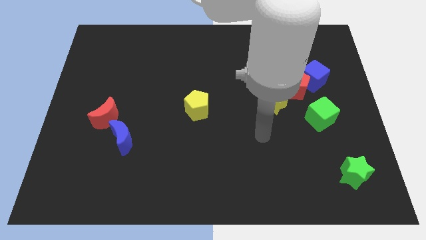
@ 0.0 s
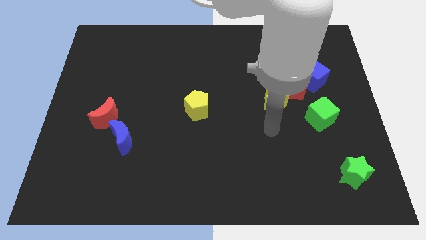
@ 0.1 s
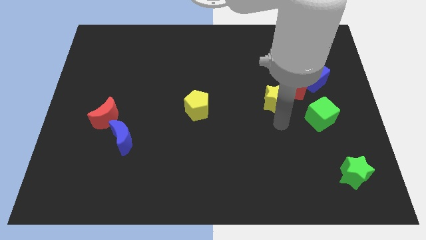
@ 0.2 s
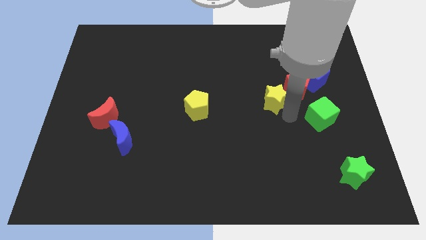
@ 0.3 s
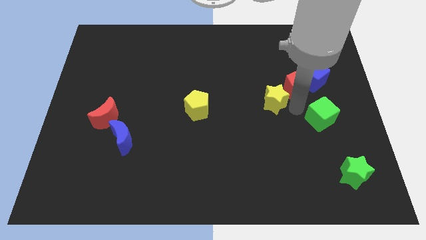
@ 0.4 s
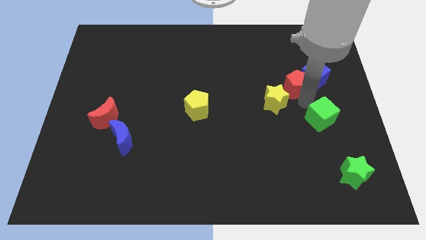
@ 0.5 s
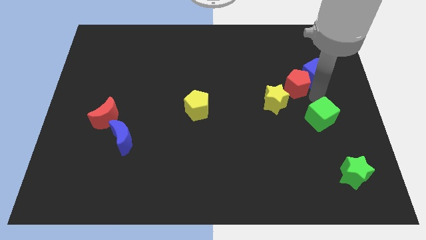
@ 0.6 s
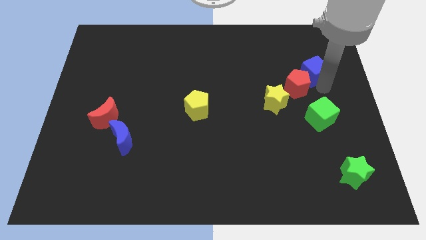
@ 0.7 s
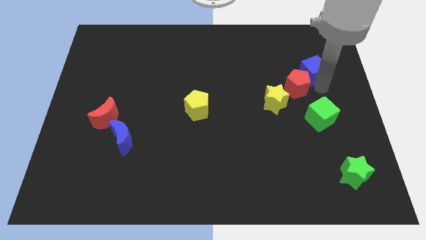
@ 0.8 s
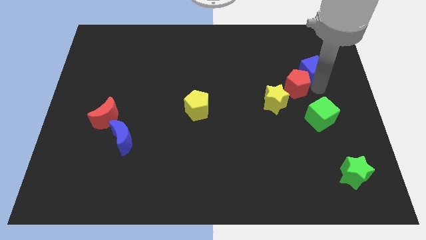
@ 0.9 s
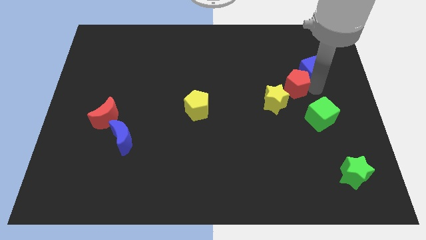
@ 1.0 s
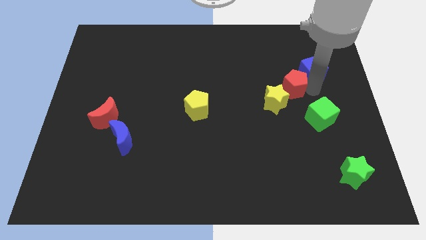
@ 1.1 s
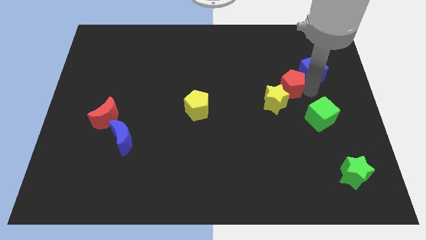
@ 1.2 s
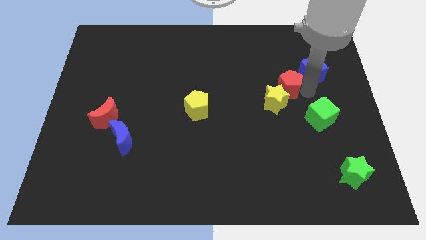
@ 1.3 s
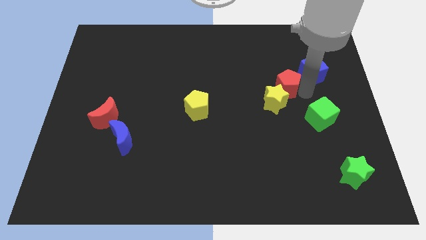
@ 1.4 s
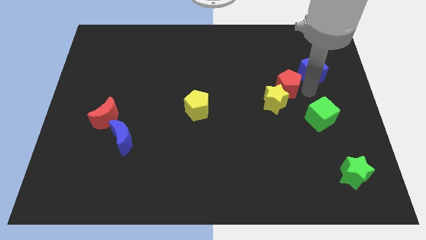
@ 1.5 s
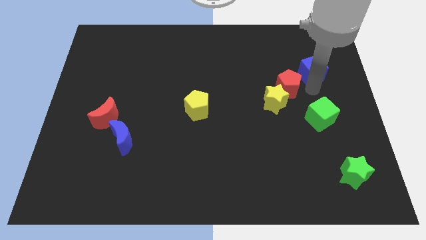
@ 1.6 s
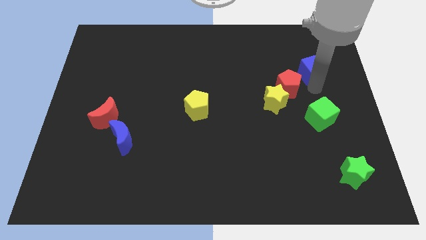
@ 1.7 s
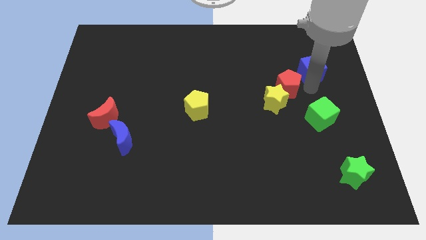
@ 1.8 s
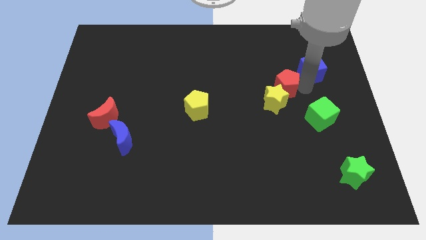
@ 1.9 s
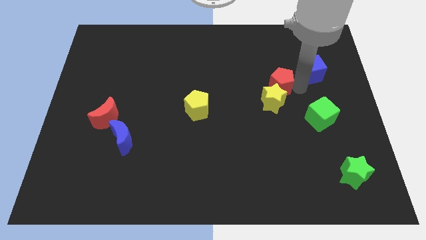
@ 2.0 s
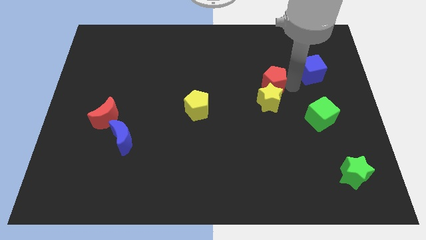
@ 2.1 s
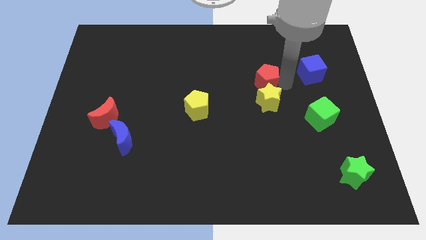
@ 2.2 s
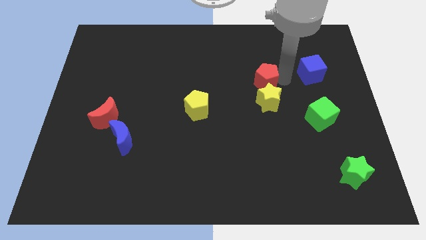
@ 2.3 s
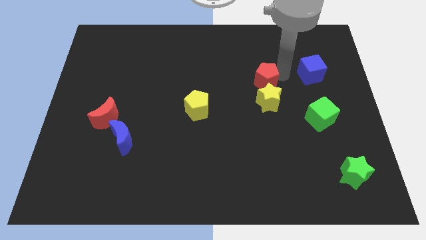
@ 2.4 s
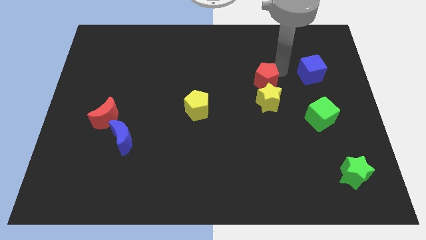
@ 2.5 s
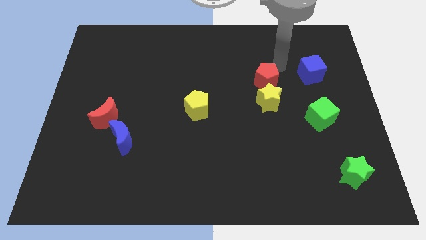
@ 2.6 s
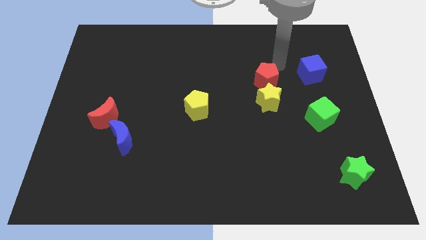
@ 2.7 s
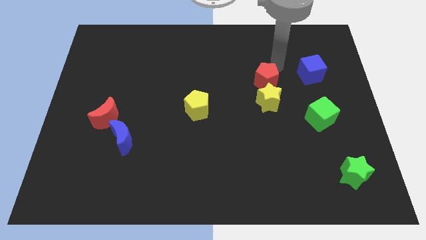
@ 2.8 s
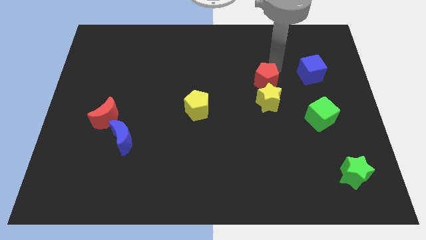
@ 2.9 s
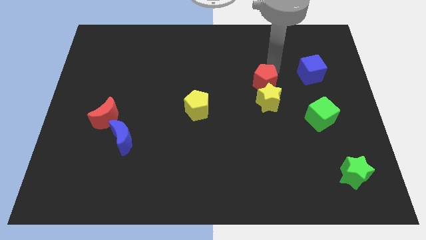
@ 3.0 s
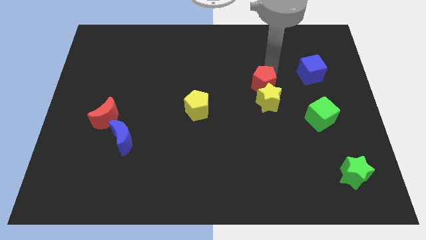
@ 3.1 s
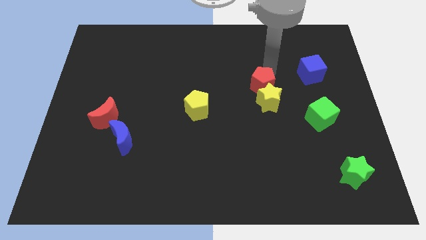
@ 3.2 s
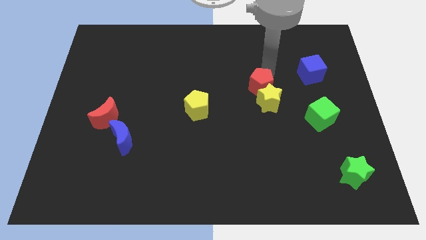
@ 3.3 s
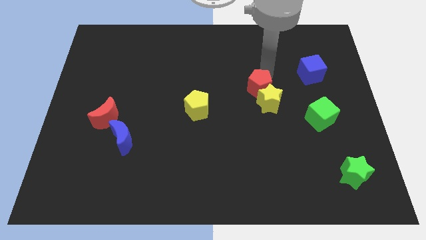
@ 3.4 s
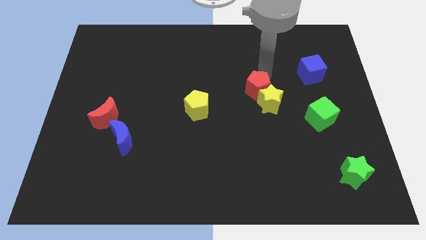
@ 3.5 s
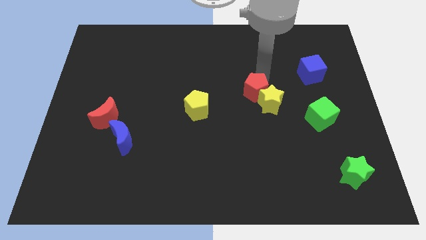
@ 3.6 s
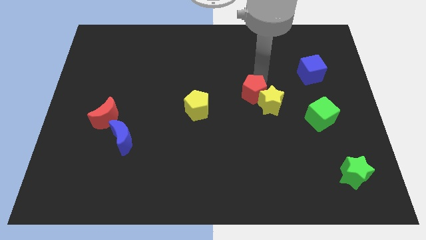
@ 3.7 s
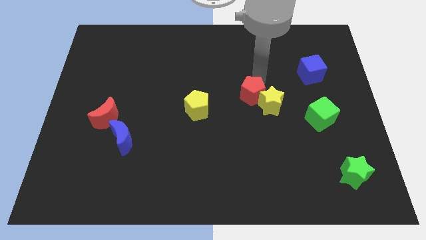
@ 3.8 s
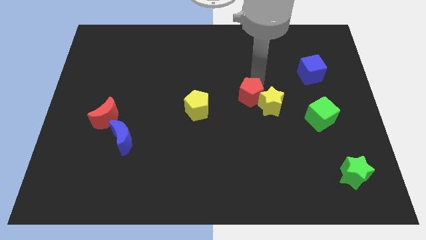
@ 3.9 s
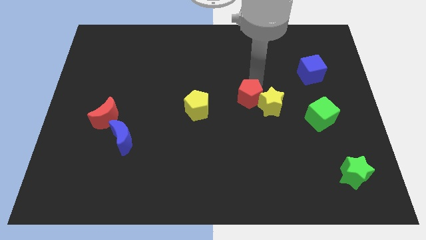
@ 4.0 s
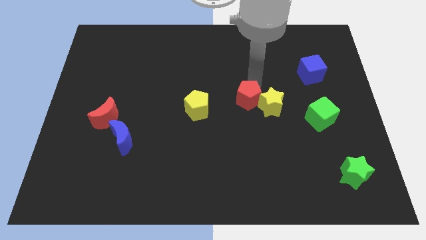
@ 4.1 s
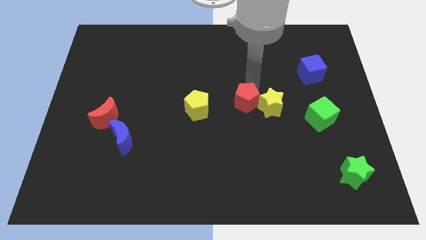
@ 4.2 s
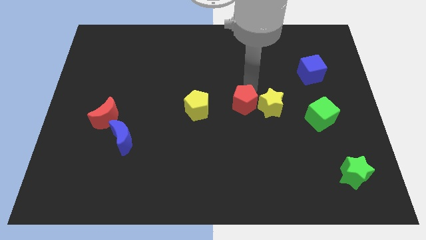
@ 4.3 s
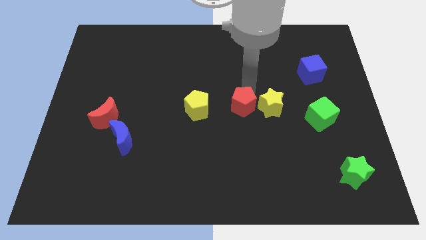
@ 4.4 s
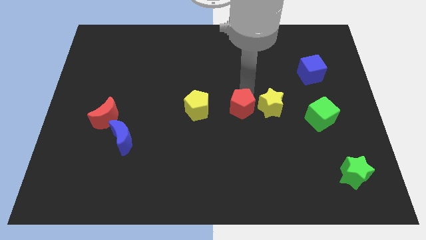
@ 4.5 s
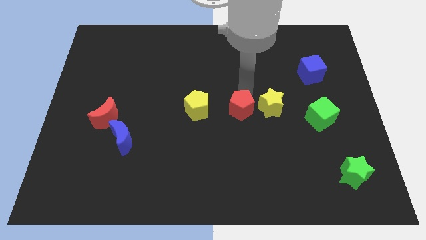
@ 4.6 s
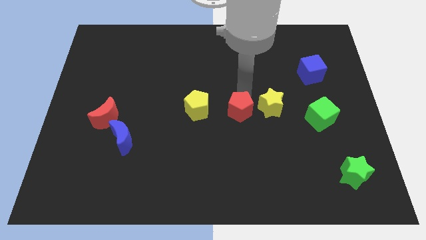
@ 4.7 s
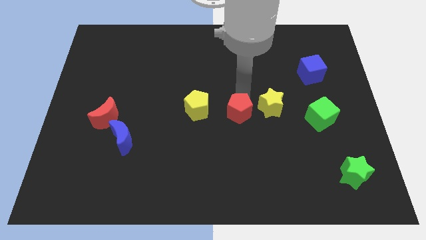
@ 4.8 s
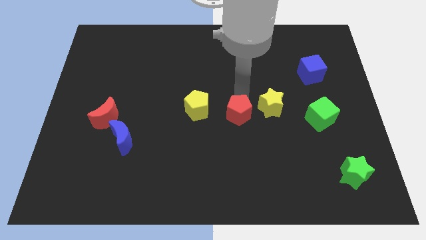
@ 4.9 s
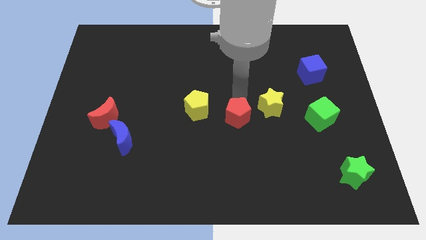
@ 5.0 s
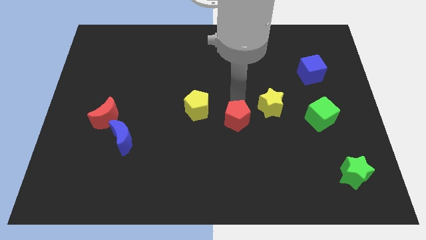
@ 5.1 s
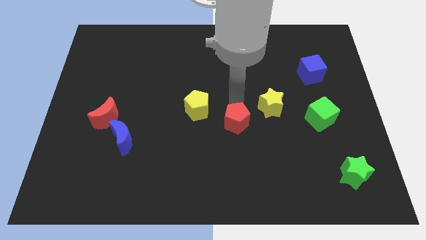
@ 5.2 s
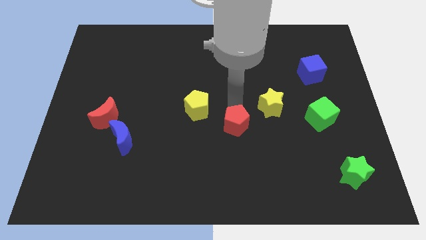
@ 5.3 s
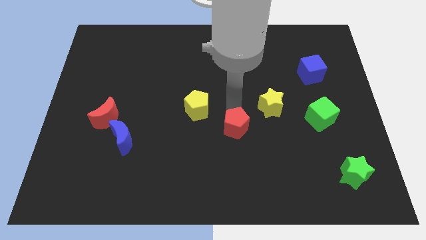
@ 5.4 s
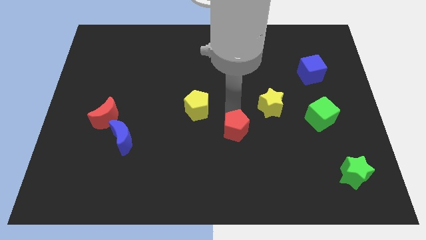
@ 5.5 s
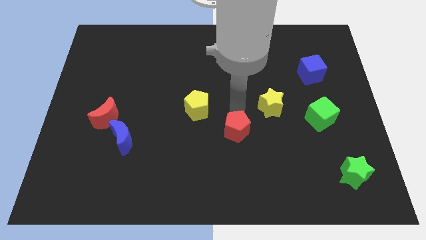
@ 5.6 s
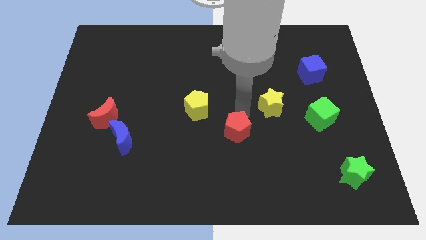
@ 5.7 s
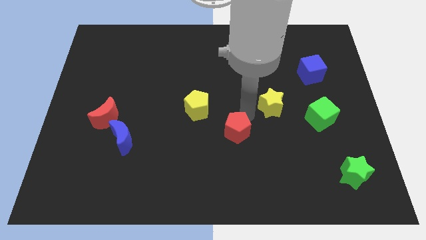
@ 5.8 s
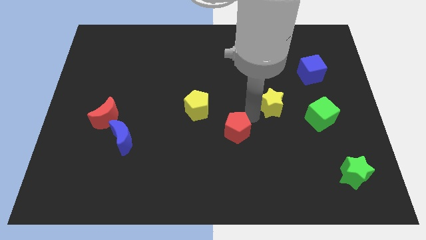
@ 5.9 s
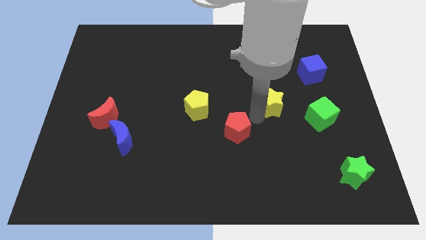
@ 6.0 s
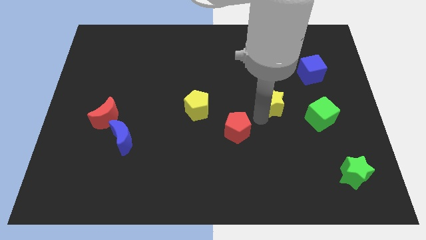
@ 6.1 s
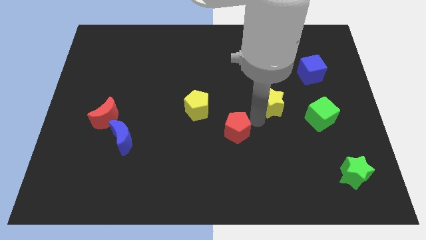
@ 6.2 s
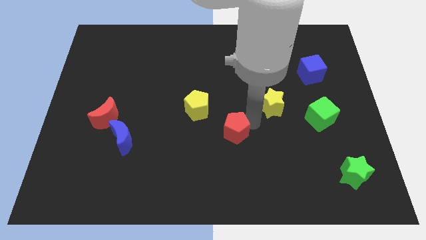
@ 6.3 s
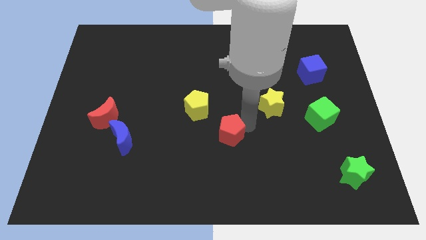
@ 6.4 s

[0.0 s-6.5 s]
slide the red pentagon downwards and to the left

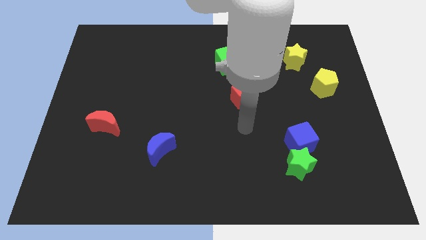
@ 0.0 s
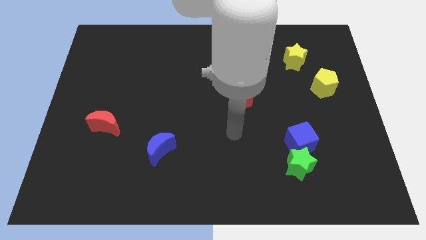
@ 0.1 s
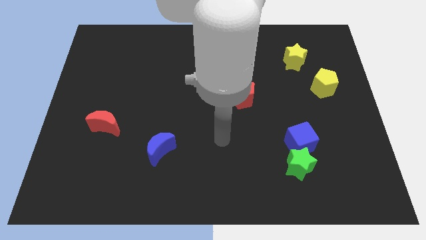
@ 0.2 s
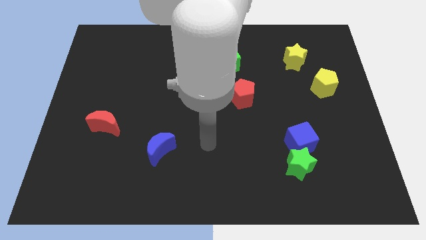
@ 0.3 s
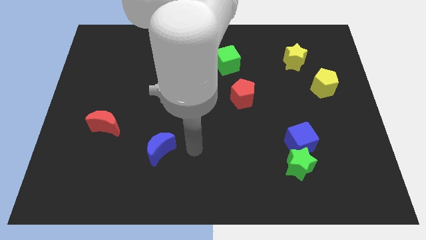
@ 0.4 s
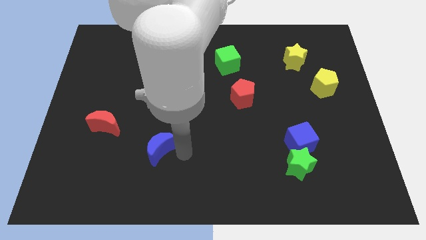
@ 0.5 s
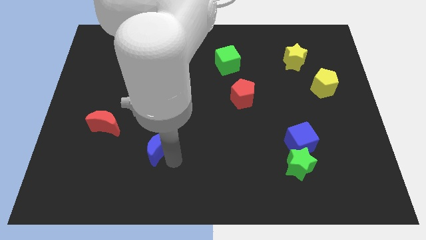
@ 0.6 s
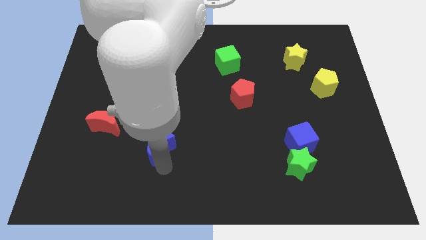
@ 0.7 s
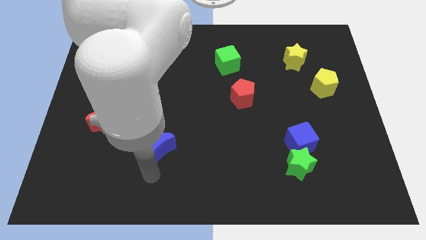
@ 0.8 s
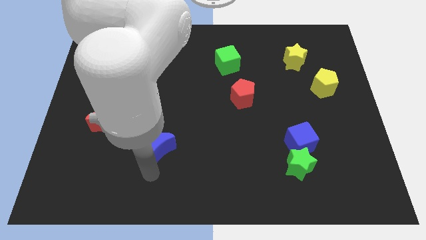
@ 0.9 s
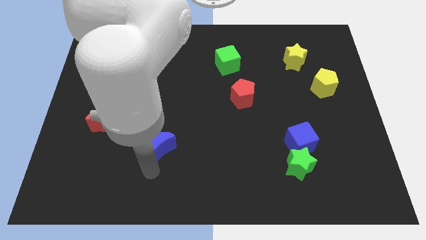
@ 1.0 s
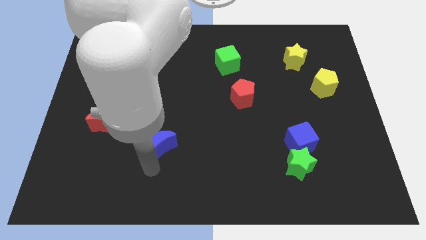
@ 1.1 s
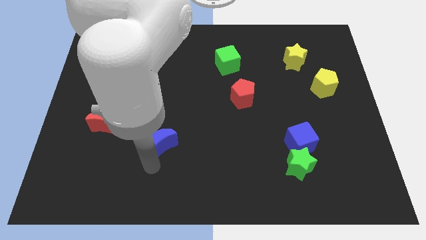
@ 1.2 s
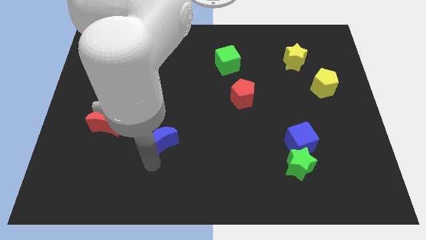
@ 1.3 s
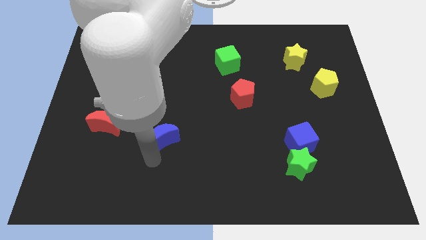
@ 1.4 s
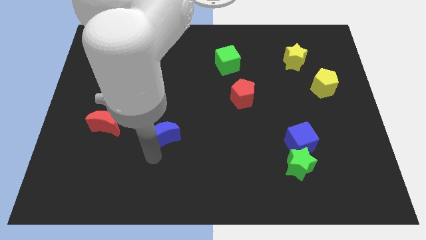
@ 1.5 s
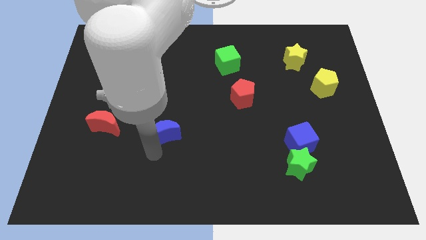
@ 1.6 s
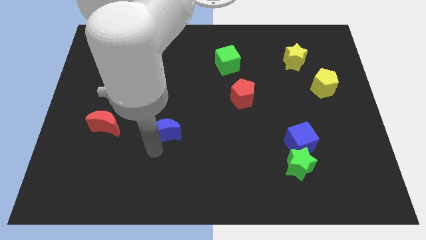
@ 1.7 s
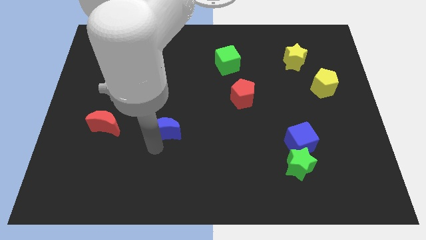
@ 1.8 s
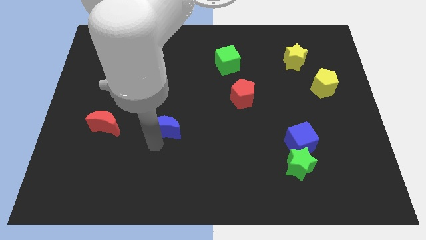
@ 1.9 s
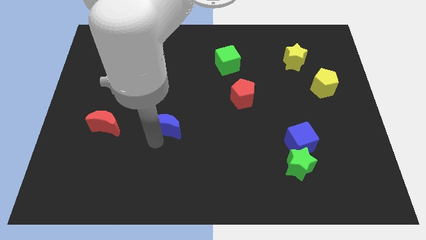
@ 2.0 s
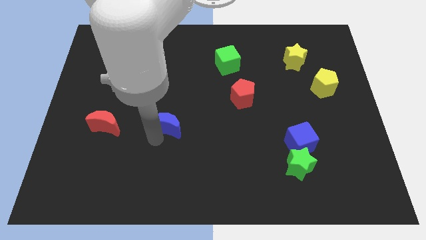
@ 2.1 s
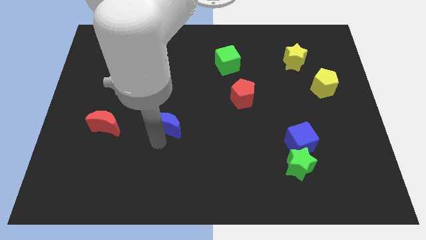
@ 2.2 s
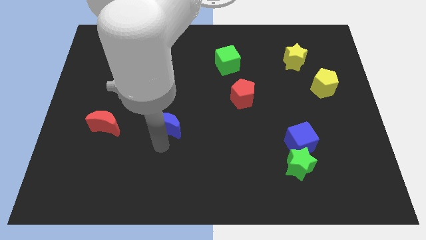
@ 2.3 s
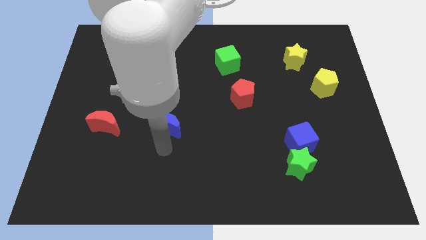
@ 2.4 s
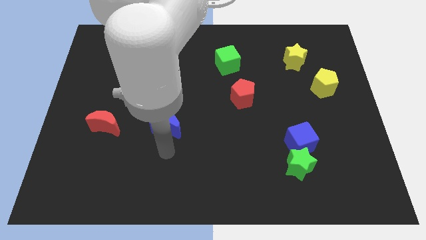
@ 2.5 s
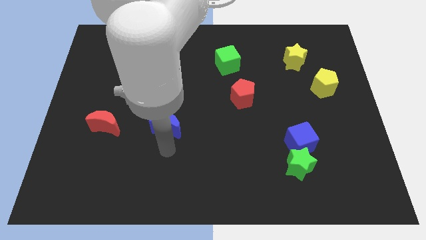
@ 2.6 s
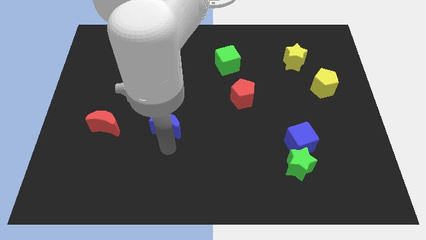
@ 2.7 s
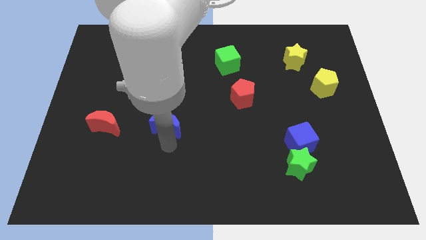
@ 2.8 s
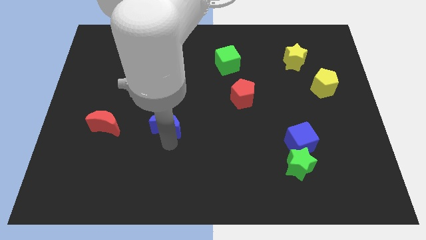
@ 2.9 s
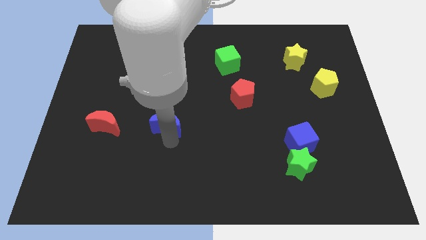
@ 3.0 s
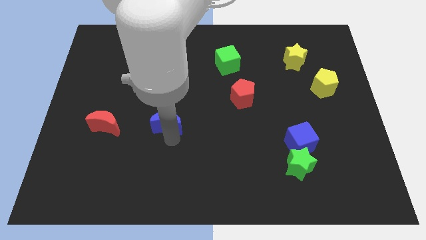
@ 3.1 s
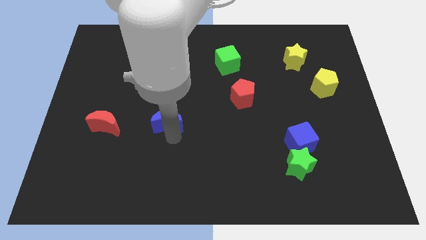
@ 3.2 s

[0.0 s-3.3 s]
move the blue moon a bit upwards
